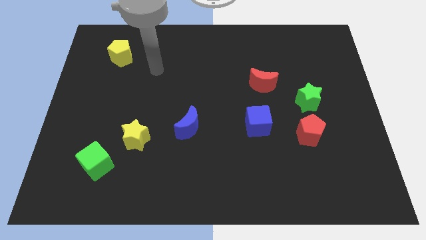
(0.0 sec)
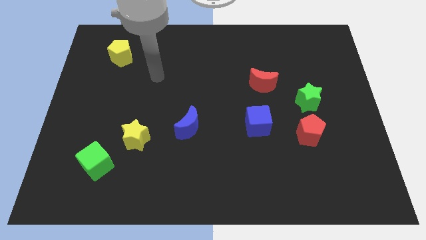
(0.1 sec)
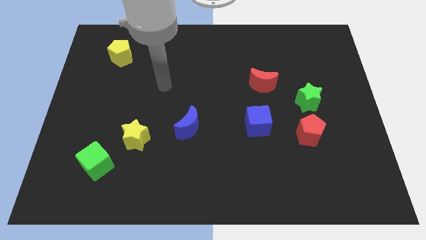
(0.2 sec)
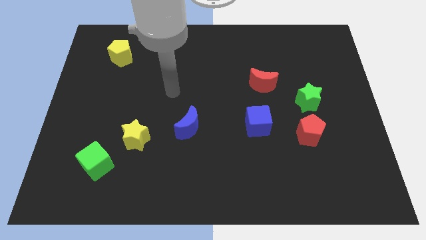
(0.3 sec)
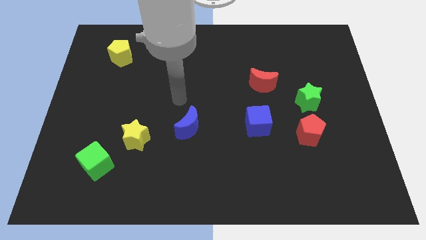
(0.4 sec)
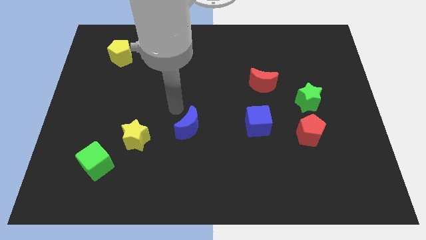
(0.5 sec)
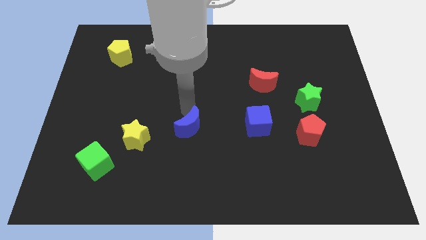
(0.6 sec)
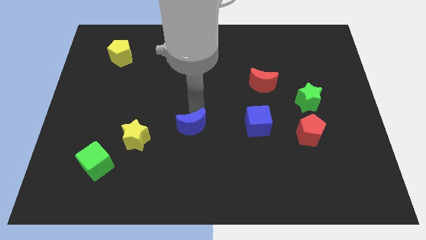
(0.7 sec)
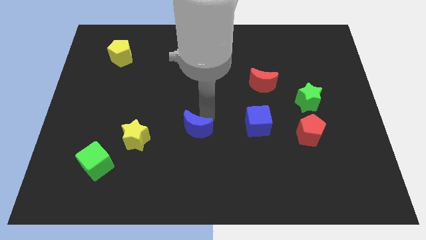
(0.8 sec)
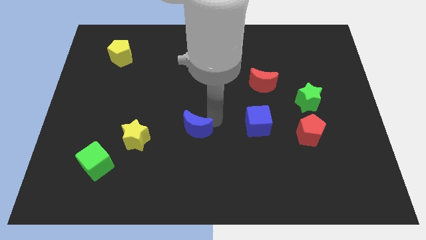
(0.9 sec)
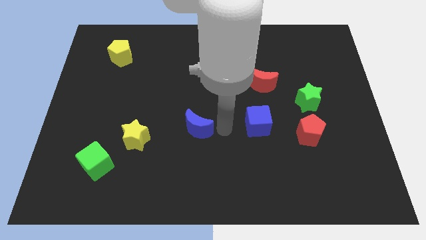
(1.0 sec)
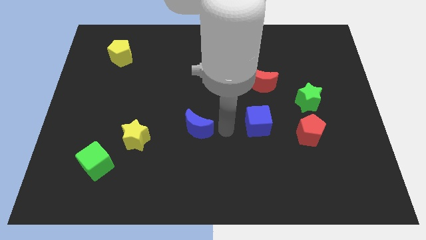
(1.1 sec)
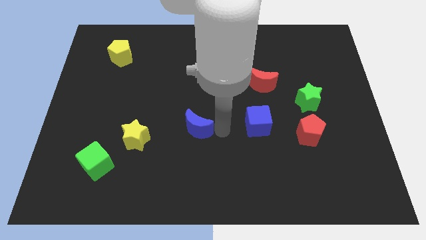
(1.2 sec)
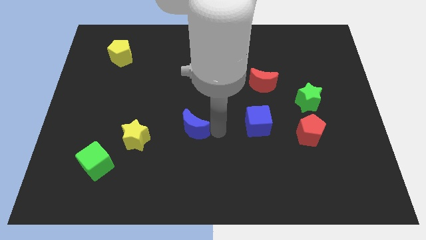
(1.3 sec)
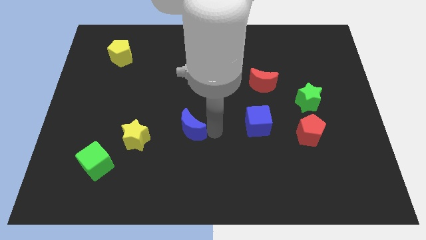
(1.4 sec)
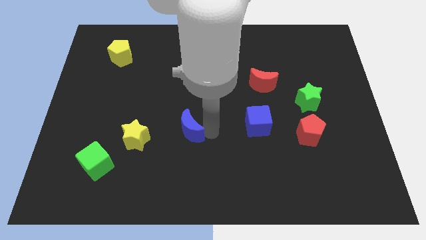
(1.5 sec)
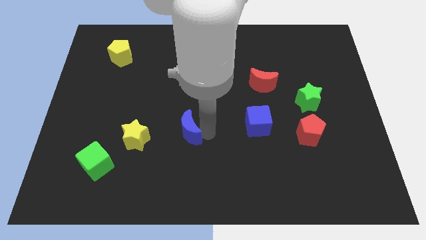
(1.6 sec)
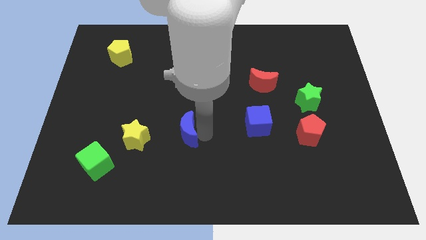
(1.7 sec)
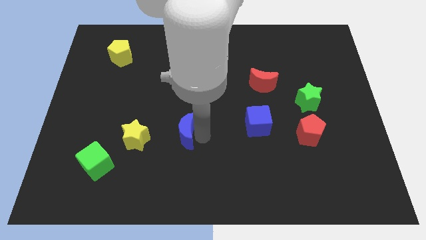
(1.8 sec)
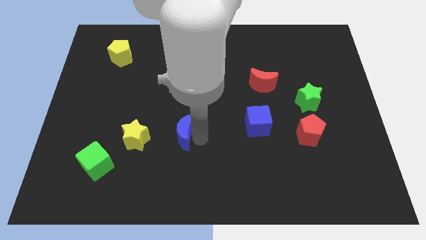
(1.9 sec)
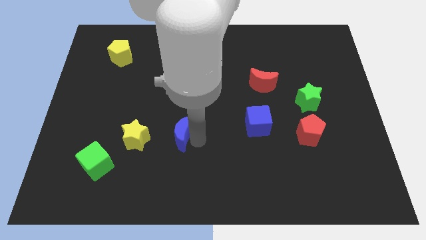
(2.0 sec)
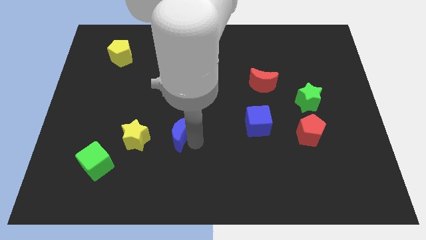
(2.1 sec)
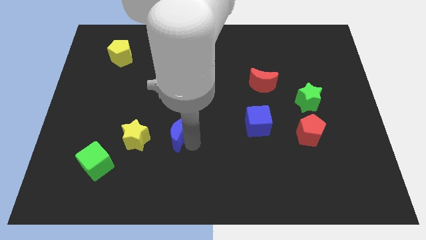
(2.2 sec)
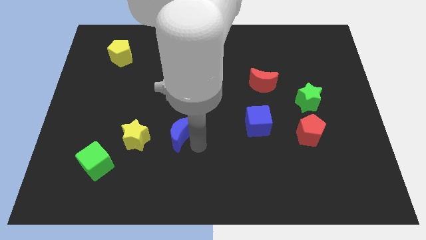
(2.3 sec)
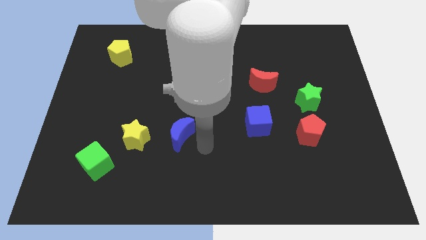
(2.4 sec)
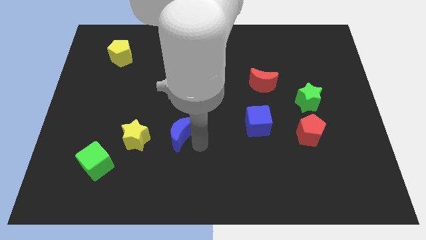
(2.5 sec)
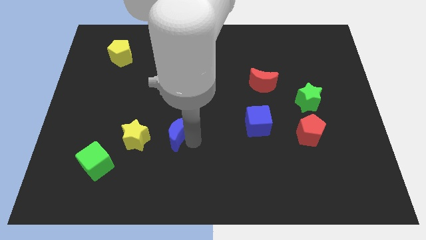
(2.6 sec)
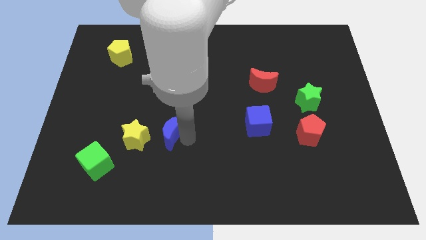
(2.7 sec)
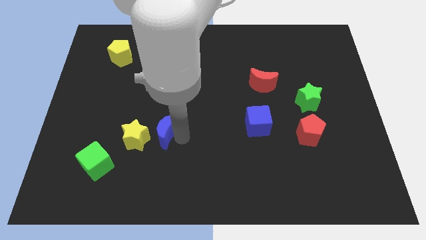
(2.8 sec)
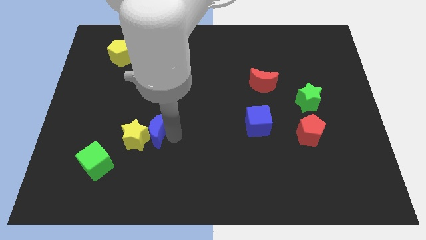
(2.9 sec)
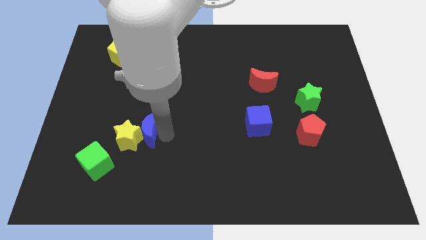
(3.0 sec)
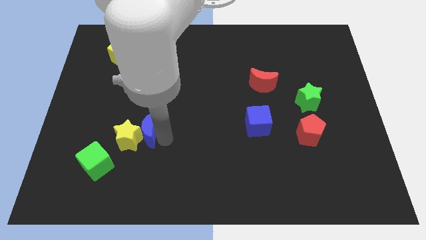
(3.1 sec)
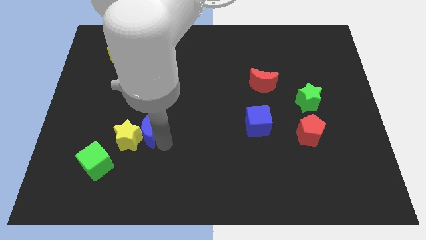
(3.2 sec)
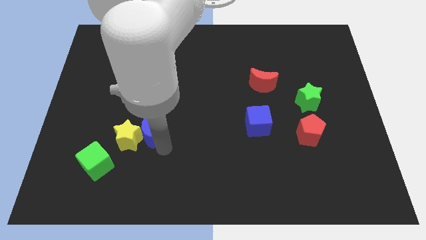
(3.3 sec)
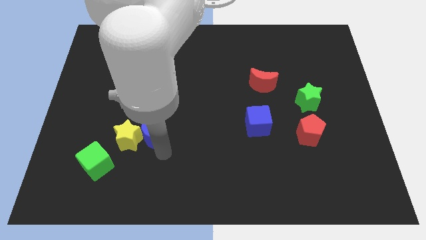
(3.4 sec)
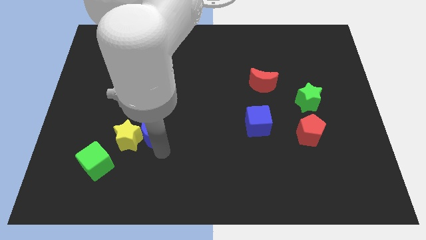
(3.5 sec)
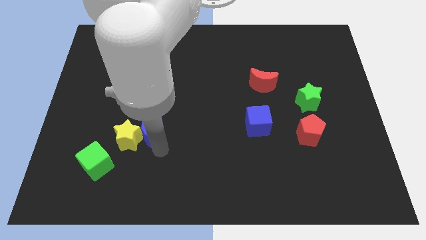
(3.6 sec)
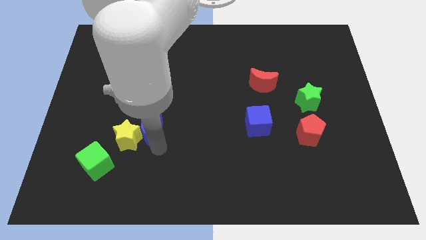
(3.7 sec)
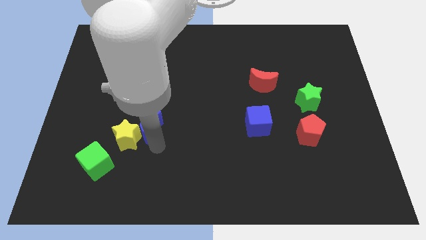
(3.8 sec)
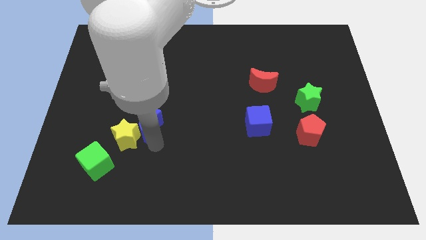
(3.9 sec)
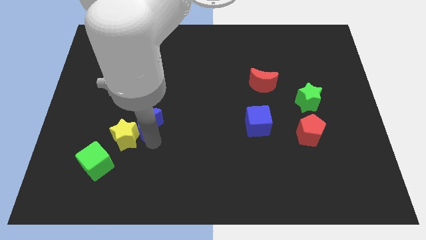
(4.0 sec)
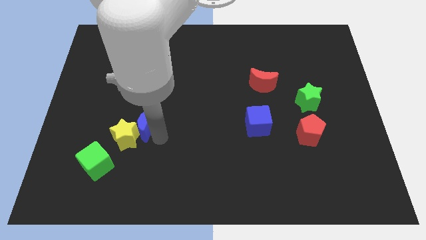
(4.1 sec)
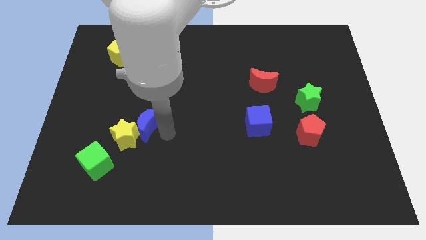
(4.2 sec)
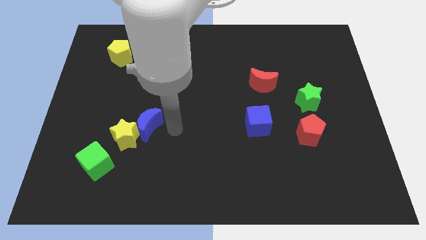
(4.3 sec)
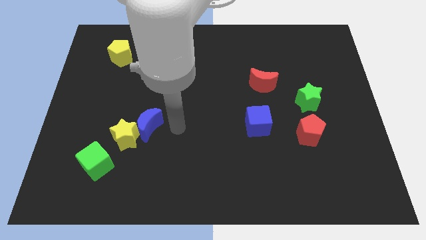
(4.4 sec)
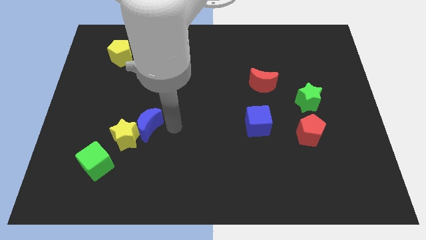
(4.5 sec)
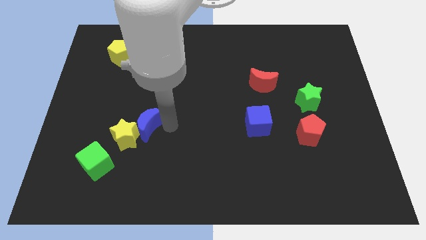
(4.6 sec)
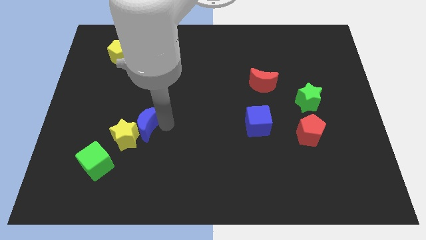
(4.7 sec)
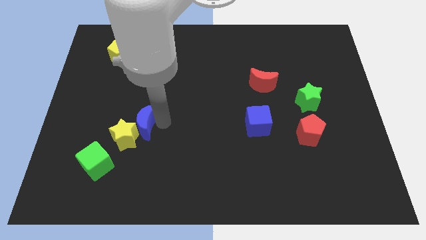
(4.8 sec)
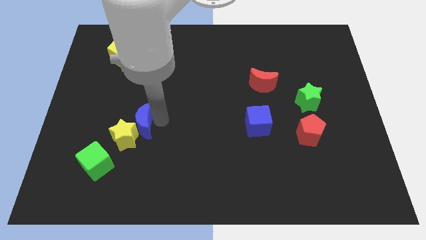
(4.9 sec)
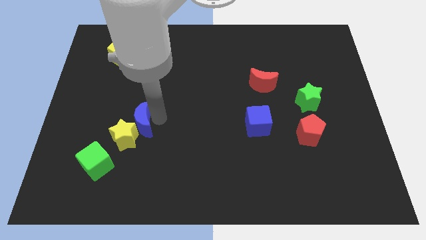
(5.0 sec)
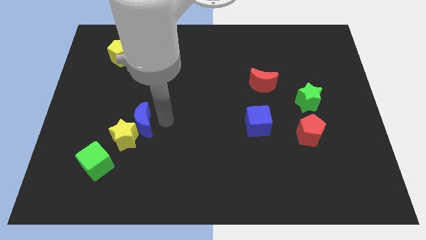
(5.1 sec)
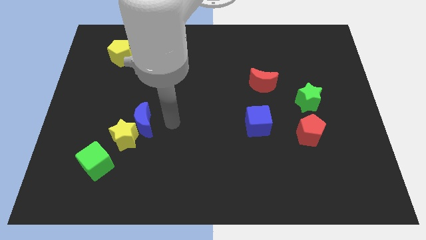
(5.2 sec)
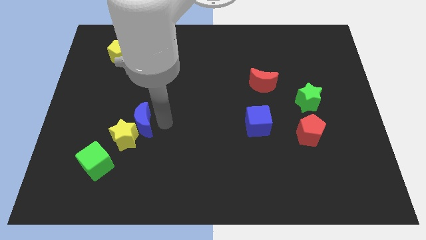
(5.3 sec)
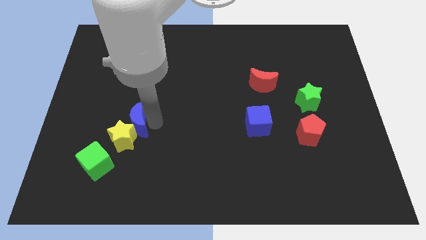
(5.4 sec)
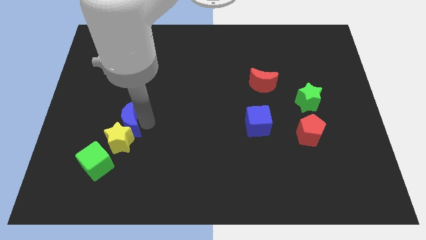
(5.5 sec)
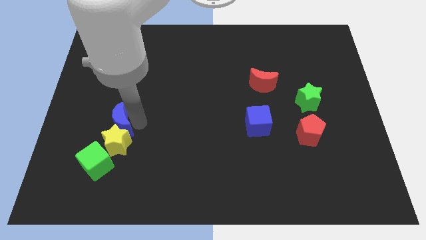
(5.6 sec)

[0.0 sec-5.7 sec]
put the blue moon to the top of the green cube

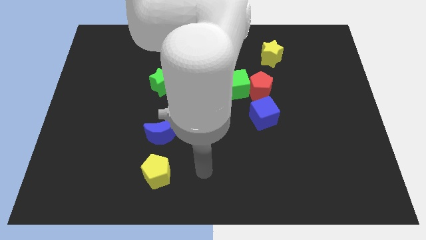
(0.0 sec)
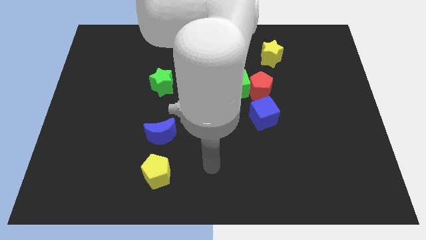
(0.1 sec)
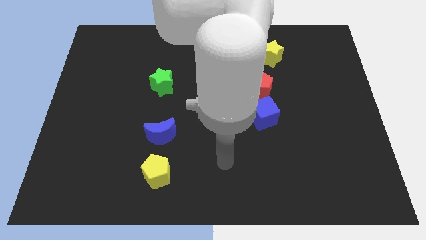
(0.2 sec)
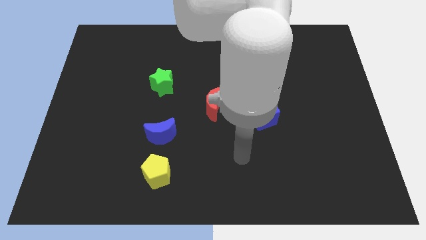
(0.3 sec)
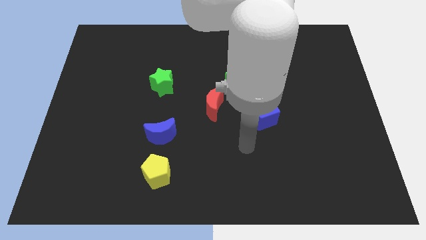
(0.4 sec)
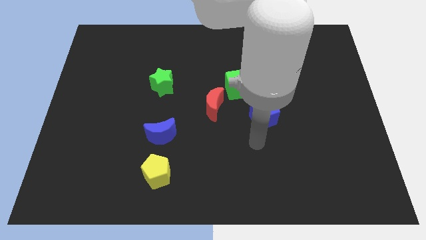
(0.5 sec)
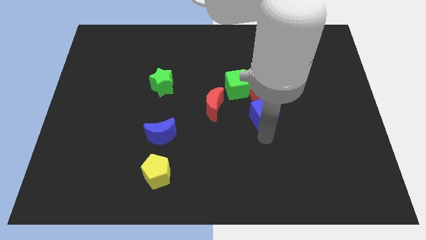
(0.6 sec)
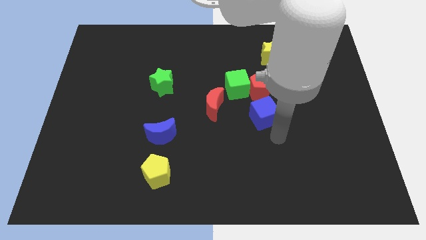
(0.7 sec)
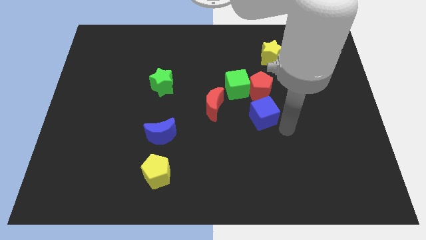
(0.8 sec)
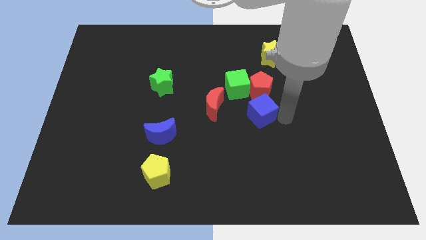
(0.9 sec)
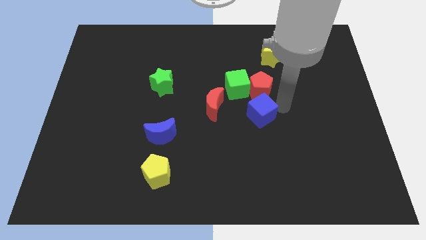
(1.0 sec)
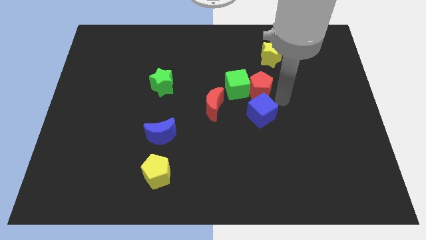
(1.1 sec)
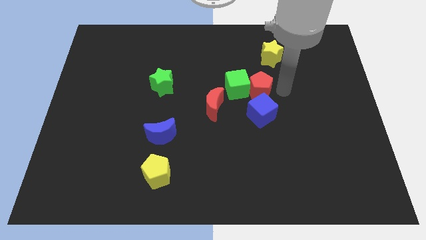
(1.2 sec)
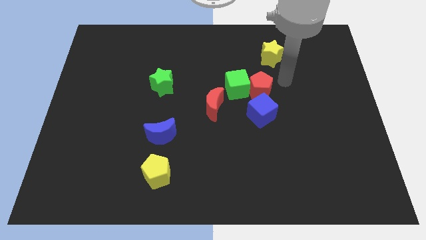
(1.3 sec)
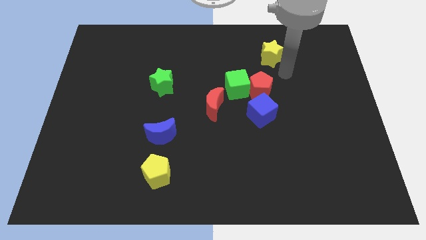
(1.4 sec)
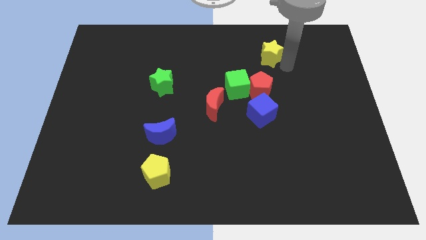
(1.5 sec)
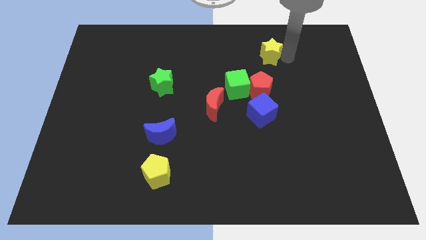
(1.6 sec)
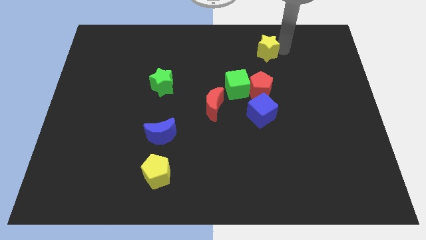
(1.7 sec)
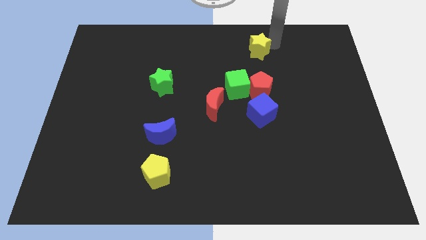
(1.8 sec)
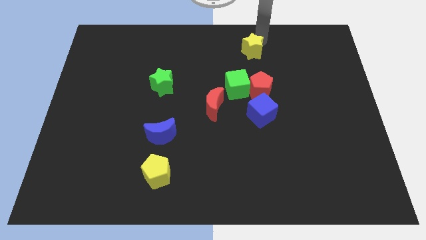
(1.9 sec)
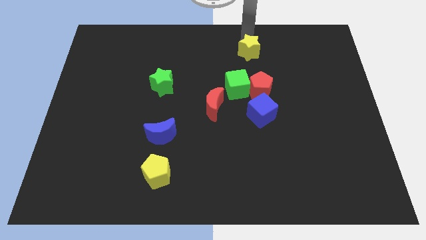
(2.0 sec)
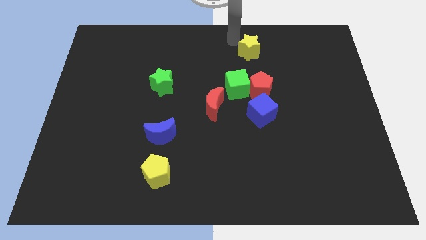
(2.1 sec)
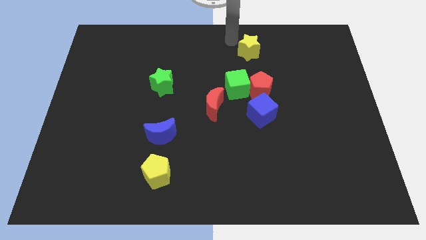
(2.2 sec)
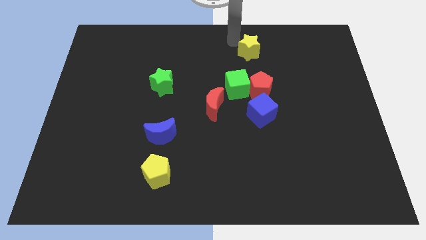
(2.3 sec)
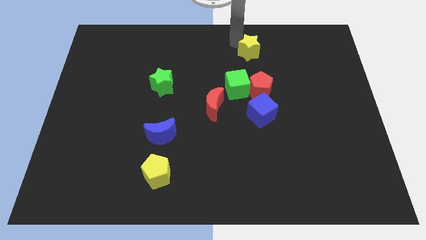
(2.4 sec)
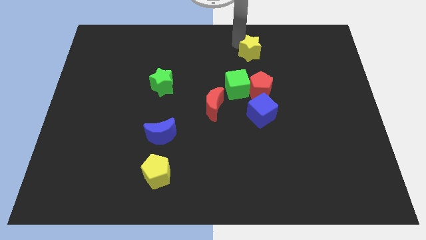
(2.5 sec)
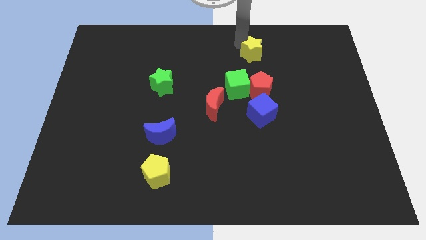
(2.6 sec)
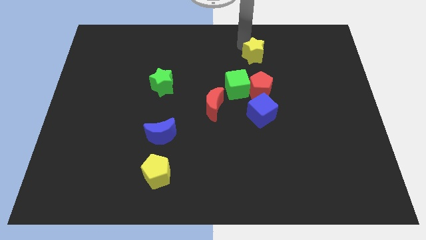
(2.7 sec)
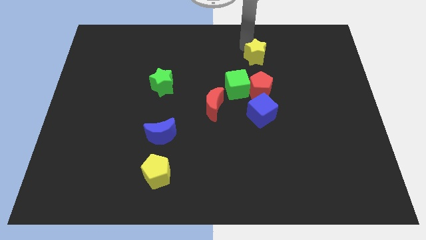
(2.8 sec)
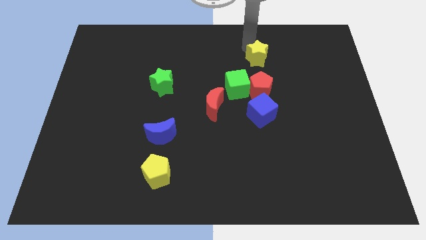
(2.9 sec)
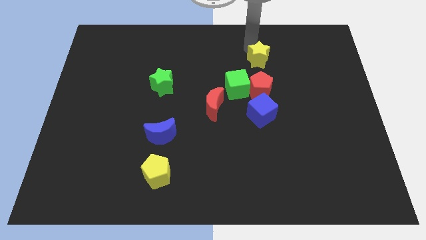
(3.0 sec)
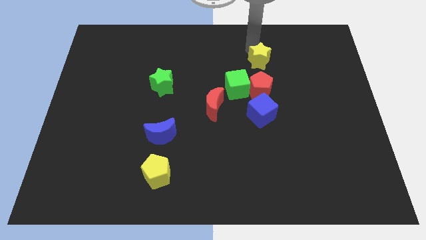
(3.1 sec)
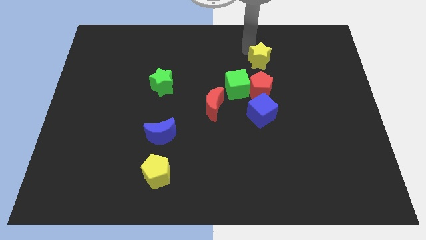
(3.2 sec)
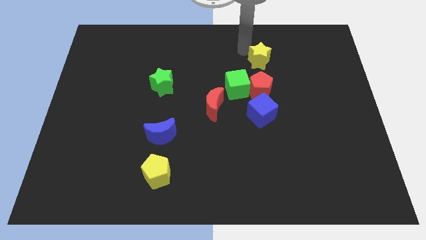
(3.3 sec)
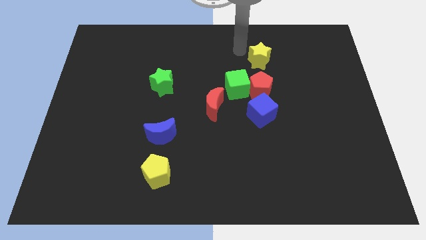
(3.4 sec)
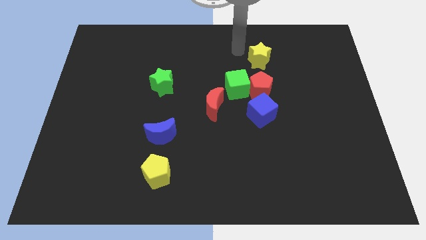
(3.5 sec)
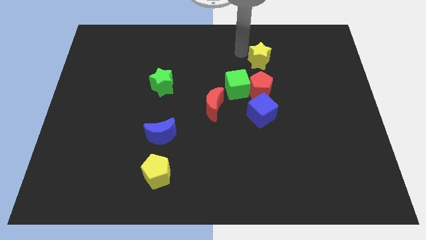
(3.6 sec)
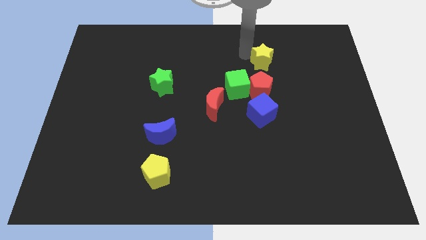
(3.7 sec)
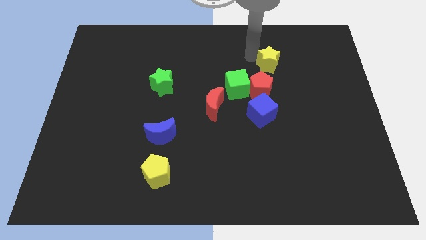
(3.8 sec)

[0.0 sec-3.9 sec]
move the yellow star diagonally up and to the right of the red pentagon
